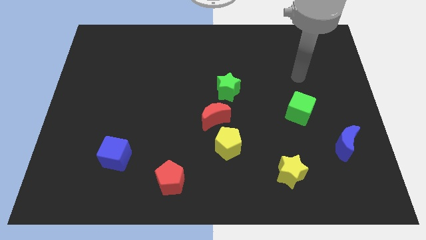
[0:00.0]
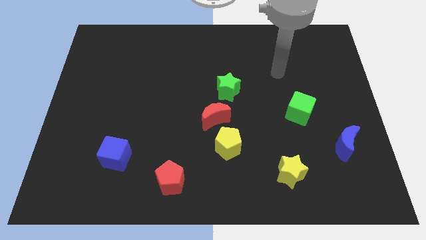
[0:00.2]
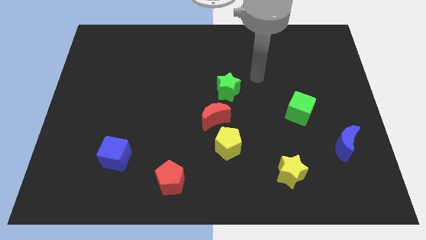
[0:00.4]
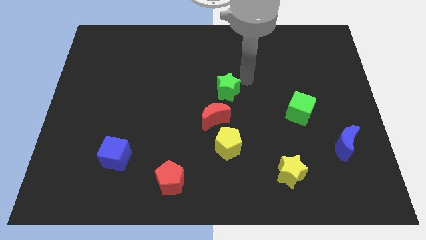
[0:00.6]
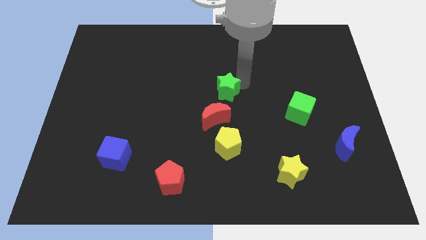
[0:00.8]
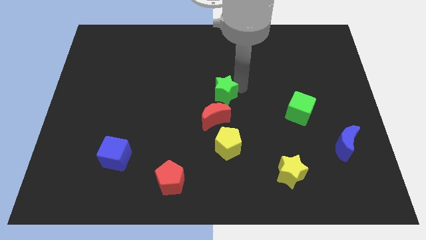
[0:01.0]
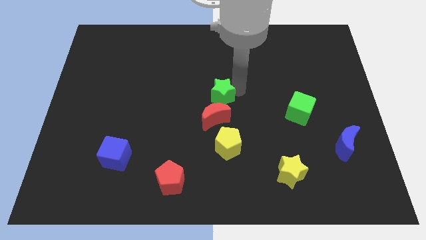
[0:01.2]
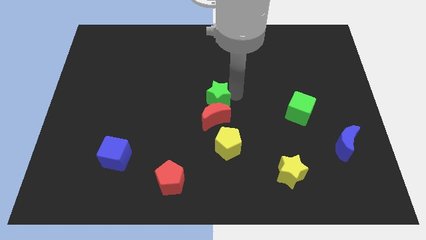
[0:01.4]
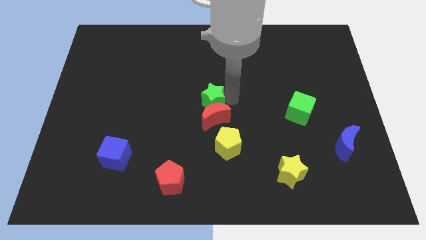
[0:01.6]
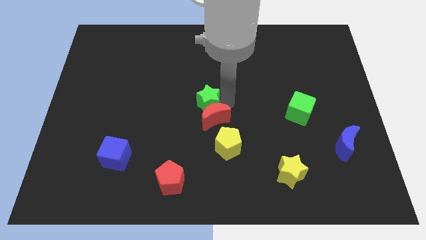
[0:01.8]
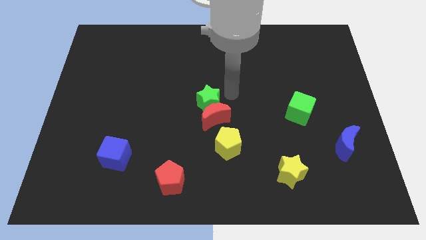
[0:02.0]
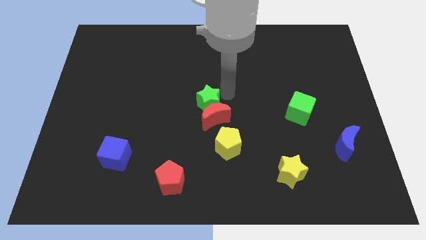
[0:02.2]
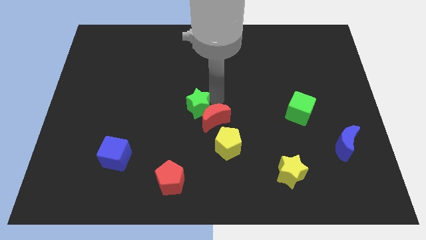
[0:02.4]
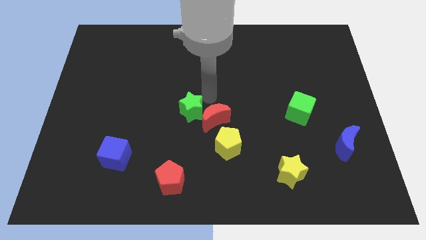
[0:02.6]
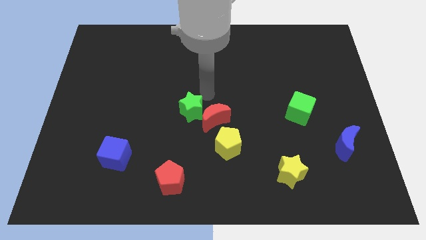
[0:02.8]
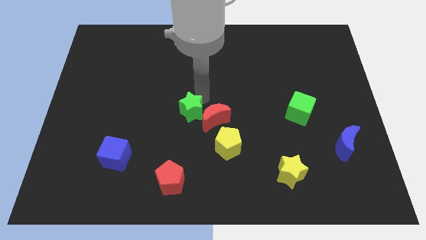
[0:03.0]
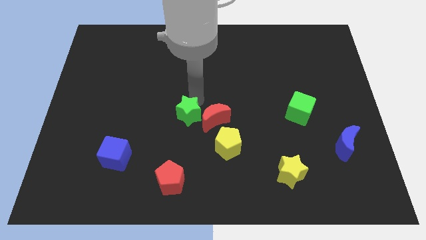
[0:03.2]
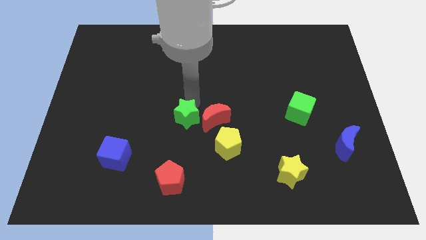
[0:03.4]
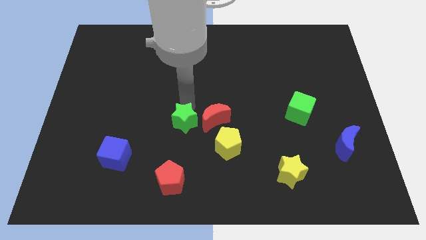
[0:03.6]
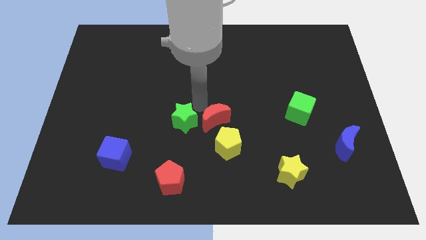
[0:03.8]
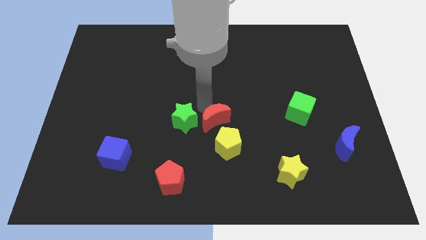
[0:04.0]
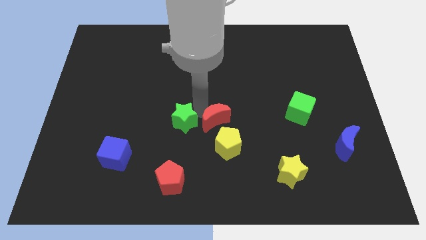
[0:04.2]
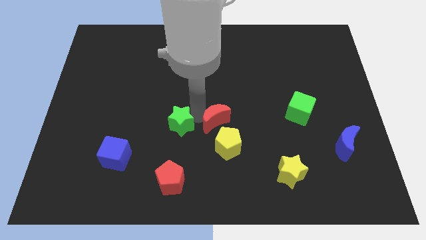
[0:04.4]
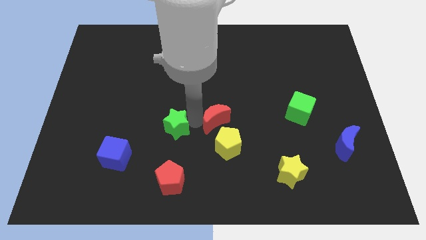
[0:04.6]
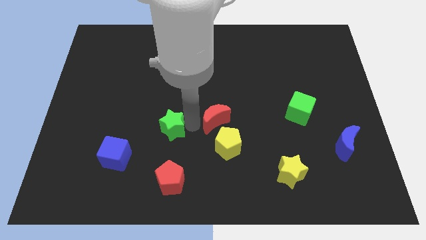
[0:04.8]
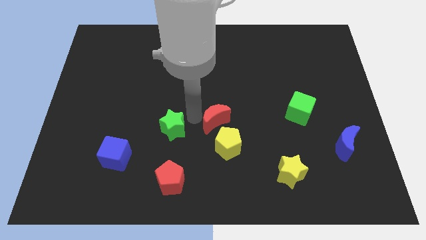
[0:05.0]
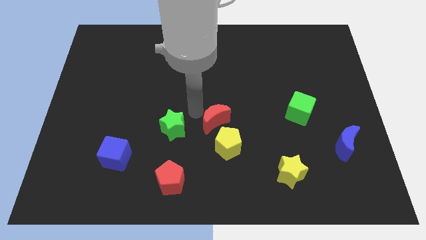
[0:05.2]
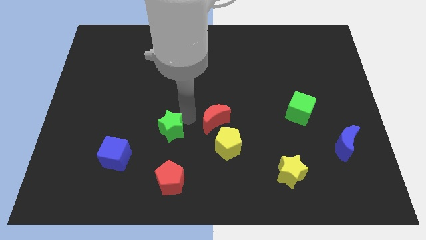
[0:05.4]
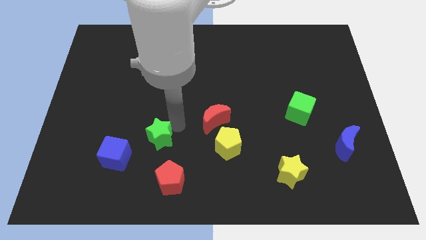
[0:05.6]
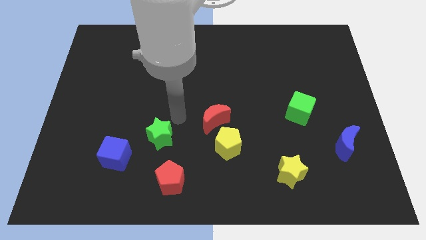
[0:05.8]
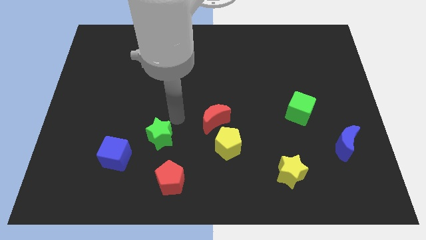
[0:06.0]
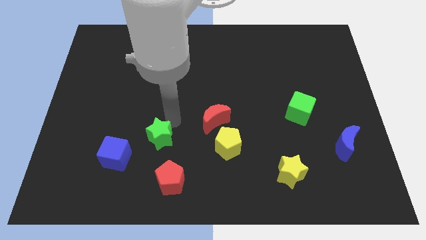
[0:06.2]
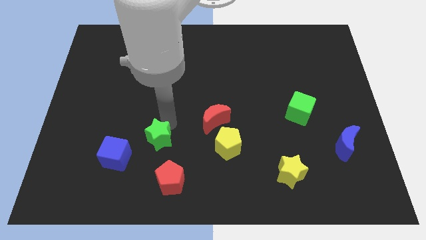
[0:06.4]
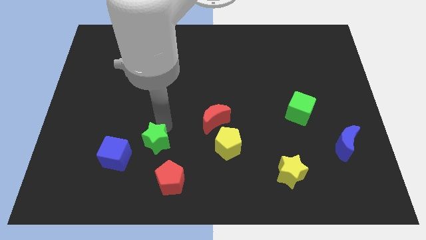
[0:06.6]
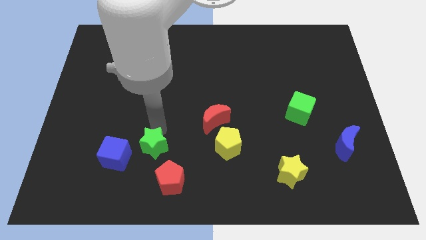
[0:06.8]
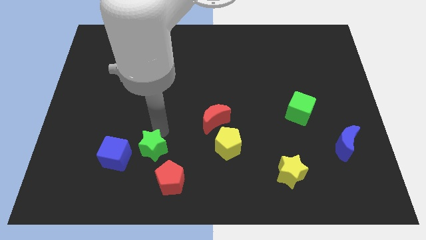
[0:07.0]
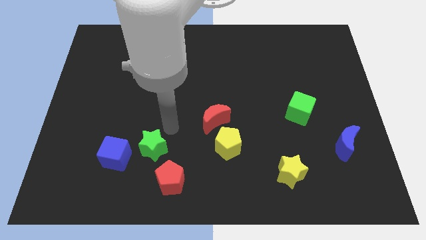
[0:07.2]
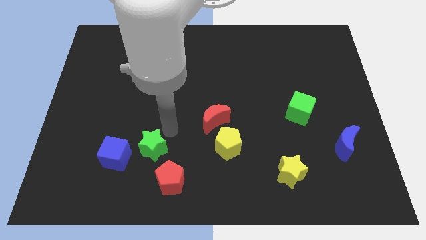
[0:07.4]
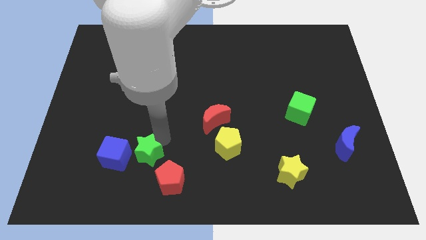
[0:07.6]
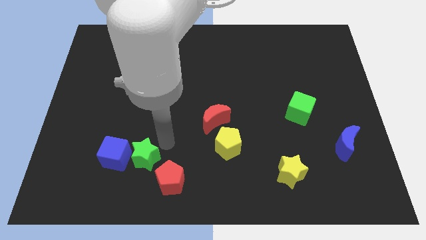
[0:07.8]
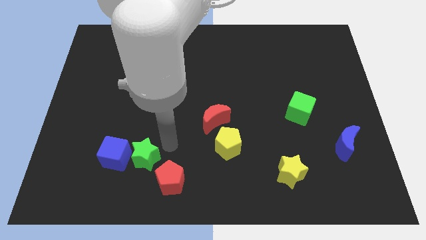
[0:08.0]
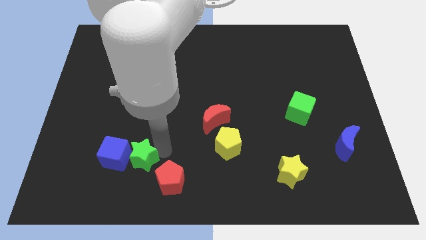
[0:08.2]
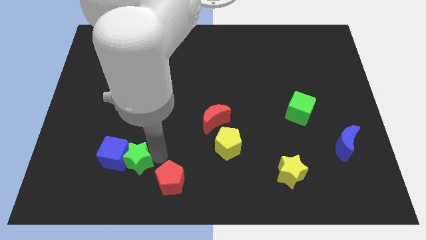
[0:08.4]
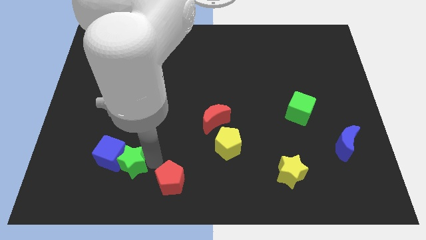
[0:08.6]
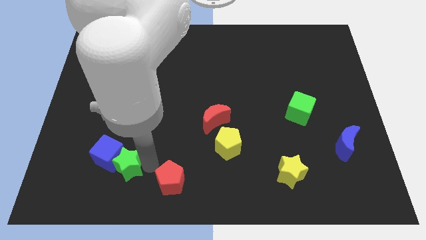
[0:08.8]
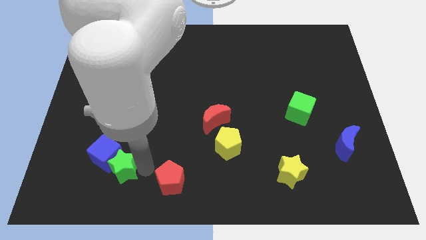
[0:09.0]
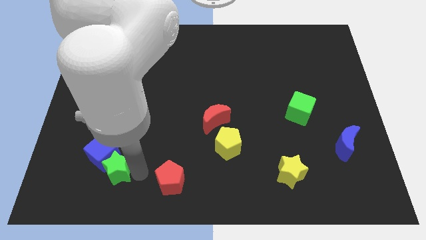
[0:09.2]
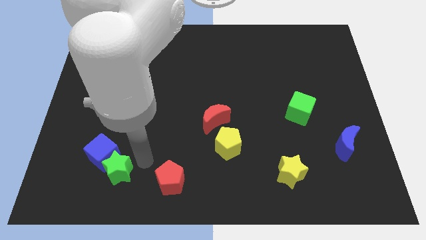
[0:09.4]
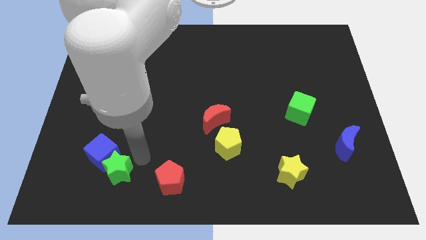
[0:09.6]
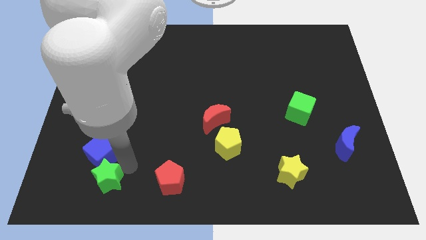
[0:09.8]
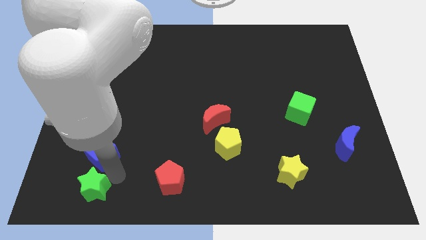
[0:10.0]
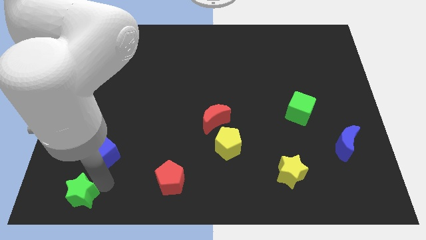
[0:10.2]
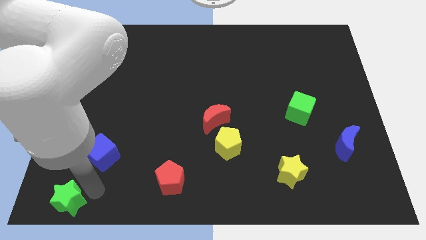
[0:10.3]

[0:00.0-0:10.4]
push the green star to the bottom left

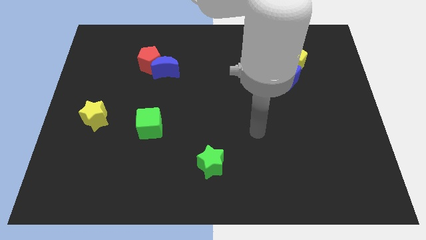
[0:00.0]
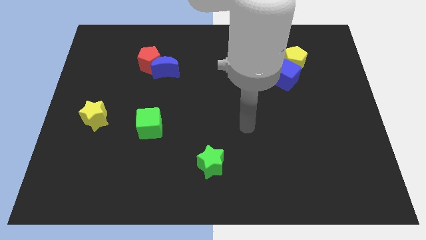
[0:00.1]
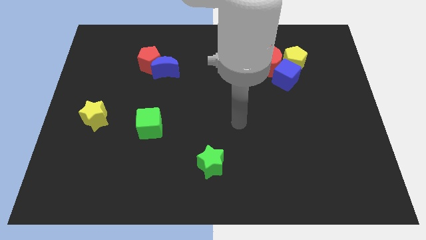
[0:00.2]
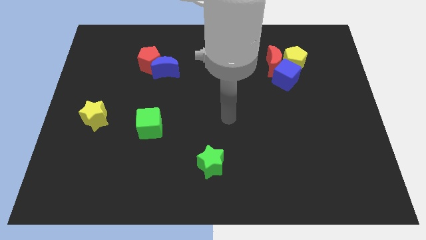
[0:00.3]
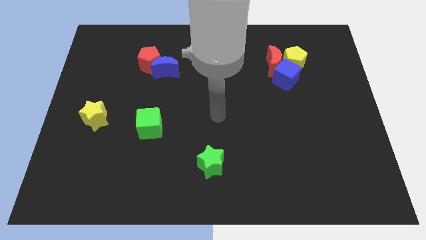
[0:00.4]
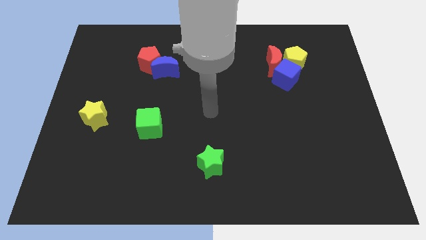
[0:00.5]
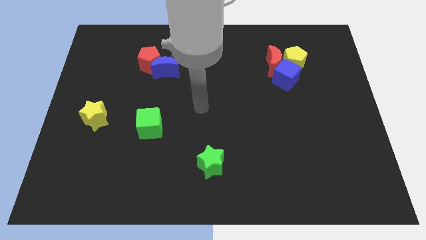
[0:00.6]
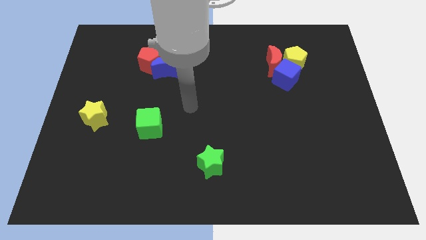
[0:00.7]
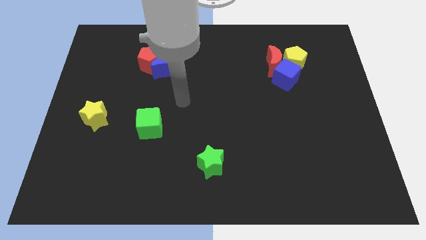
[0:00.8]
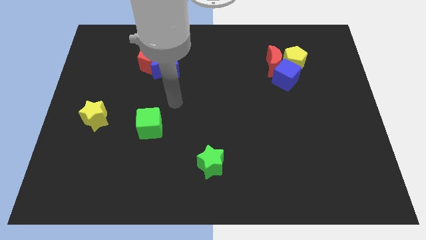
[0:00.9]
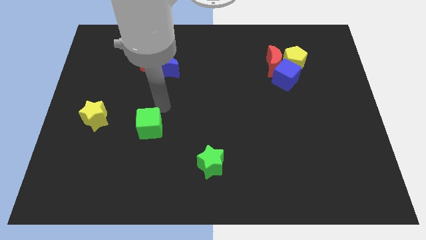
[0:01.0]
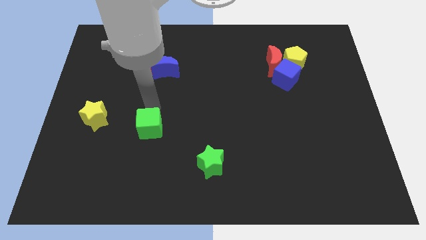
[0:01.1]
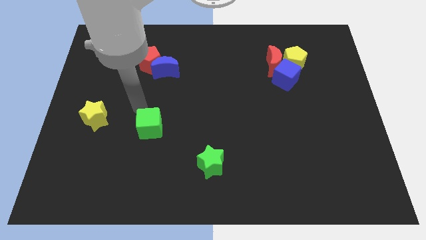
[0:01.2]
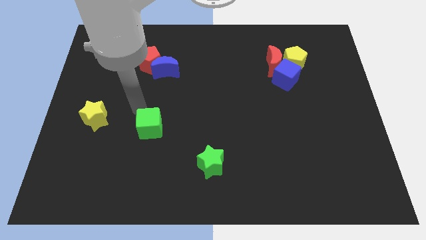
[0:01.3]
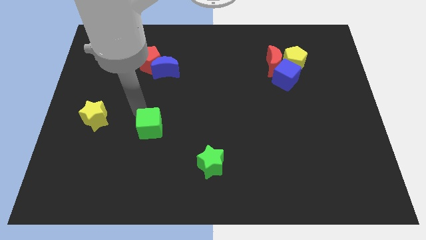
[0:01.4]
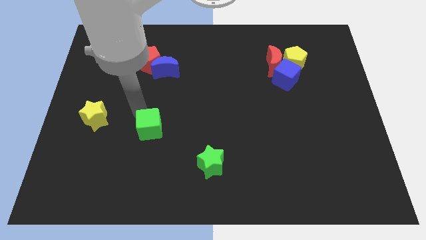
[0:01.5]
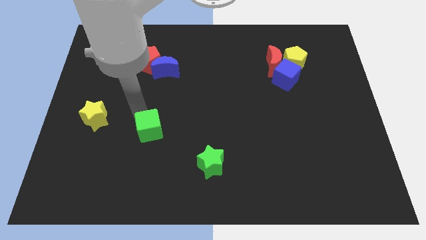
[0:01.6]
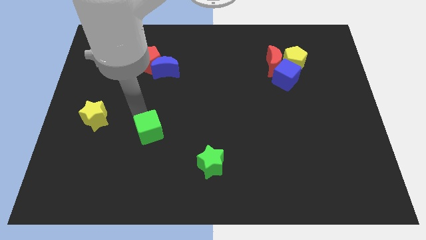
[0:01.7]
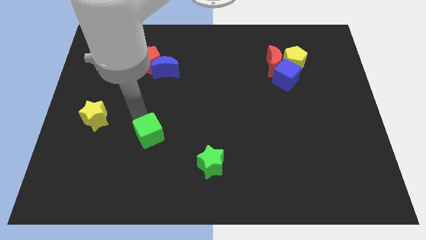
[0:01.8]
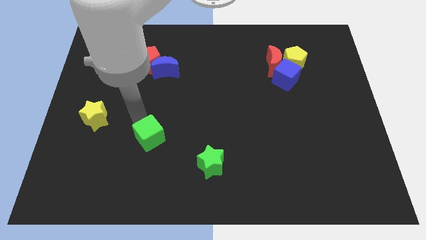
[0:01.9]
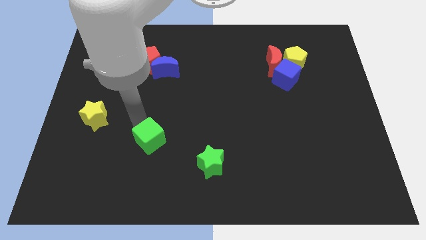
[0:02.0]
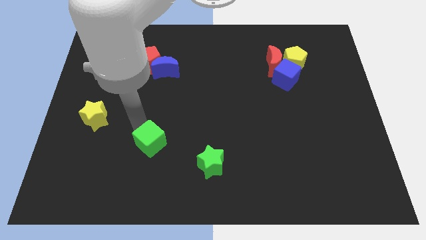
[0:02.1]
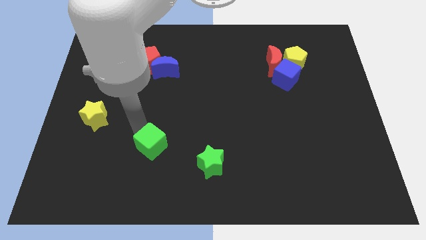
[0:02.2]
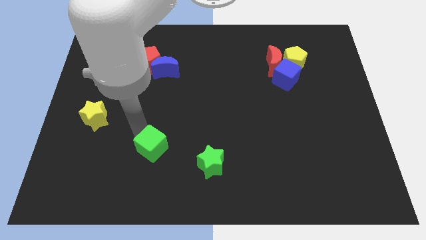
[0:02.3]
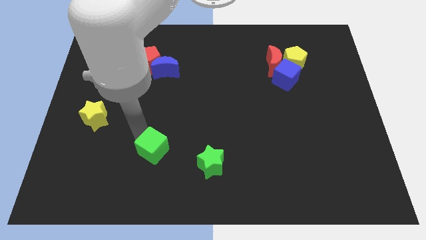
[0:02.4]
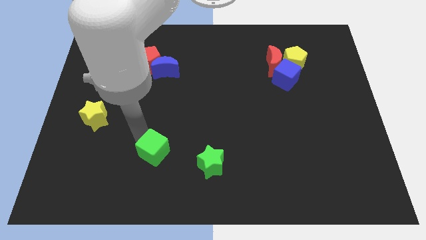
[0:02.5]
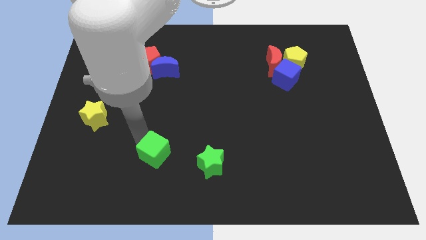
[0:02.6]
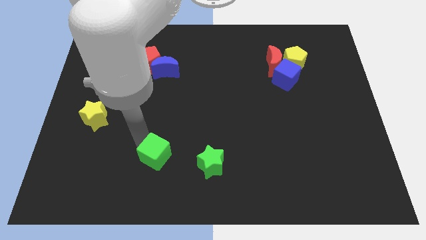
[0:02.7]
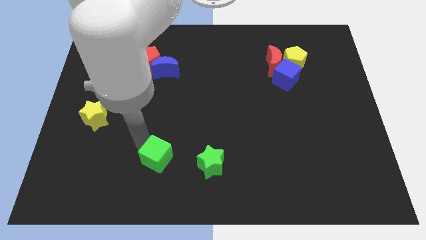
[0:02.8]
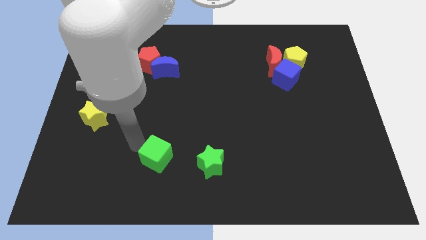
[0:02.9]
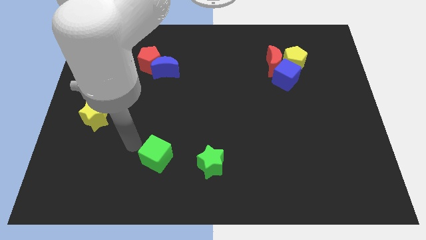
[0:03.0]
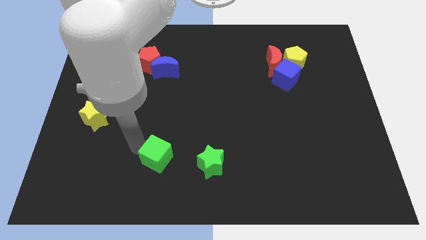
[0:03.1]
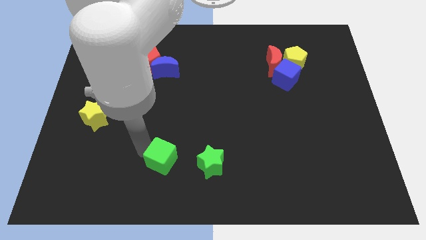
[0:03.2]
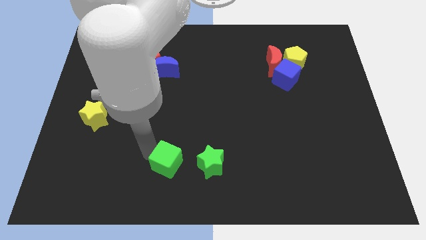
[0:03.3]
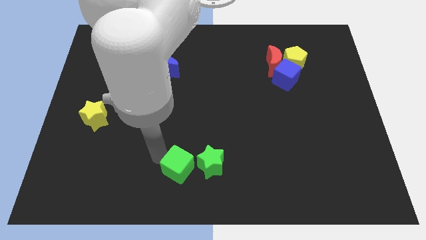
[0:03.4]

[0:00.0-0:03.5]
move the green cube to the bottom side
